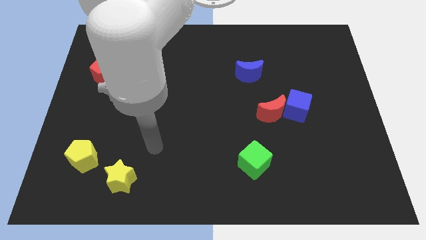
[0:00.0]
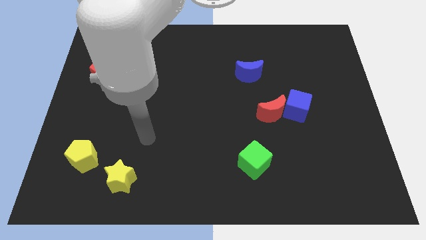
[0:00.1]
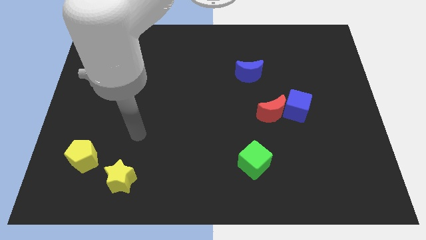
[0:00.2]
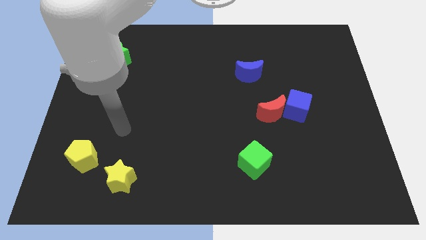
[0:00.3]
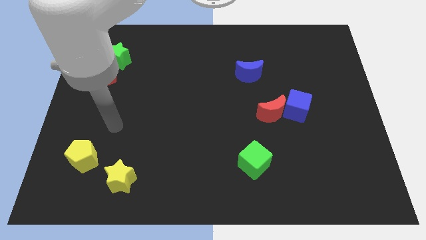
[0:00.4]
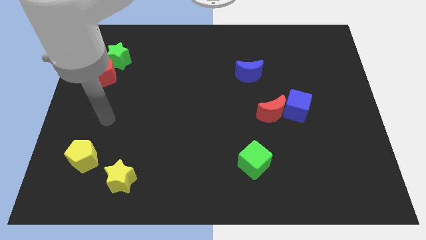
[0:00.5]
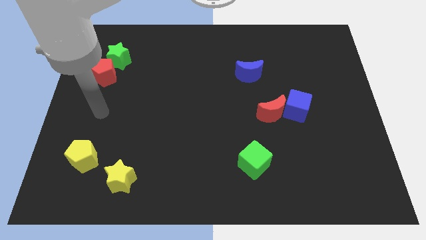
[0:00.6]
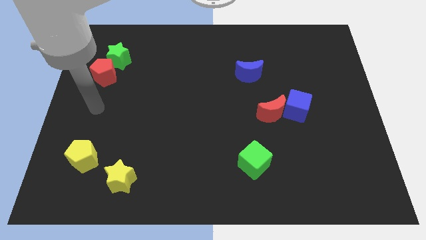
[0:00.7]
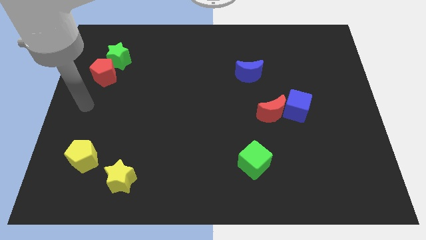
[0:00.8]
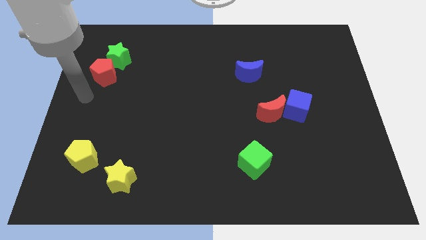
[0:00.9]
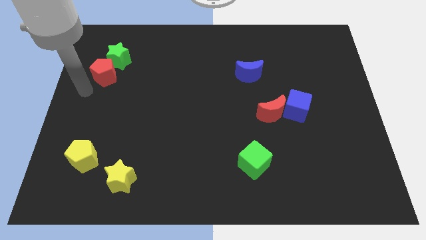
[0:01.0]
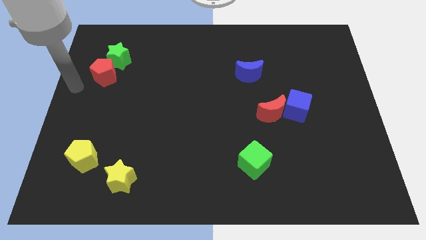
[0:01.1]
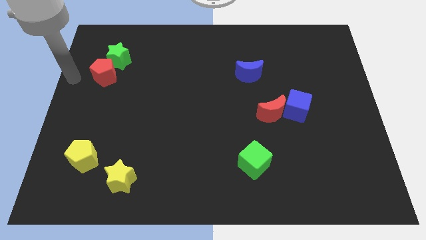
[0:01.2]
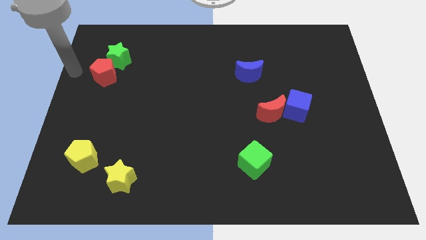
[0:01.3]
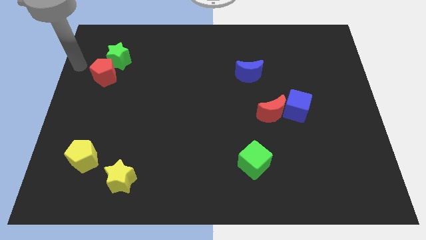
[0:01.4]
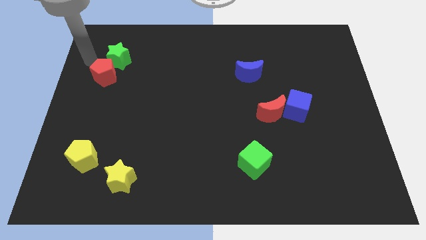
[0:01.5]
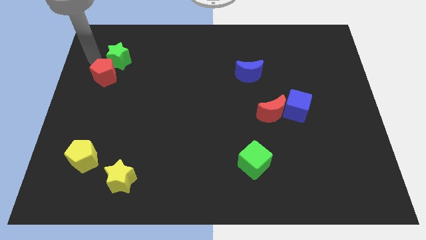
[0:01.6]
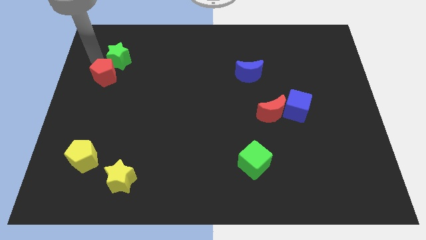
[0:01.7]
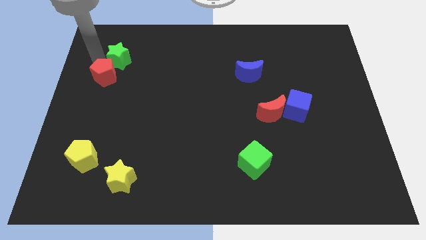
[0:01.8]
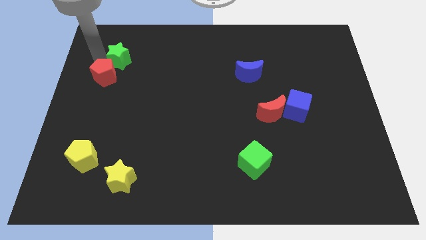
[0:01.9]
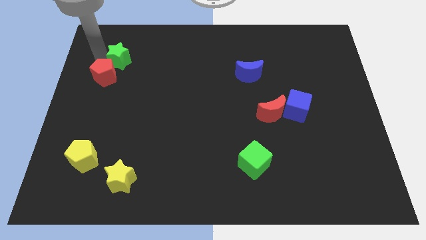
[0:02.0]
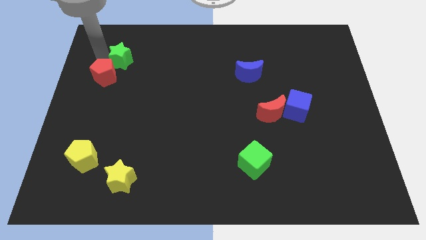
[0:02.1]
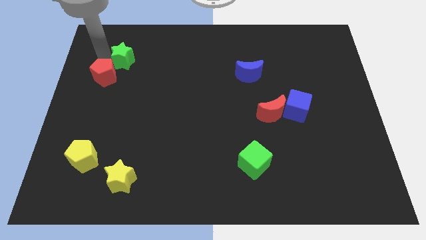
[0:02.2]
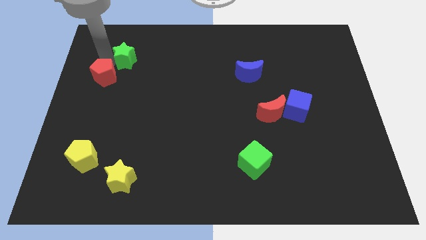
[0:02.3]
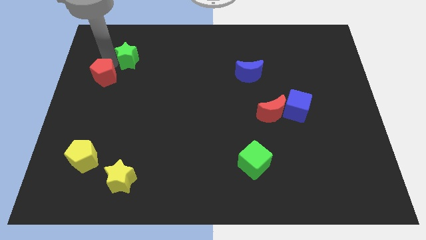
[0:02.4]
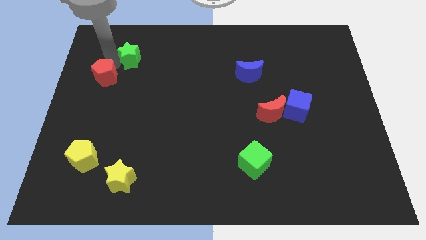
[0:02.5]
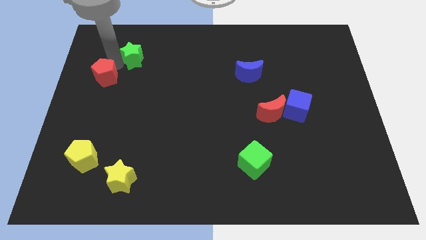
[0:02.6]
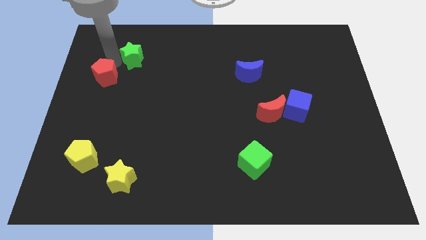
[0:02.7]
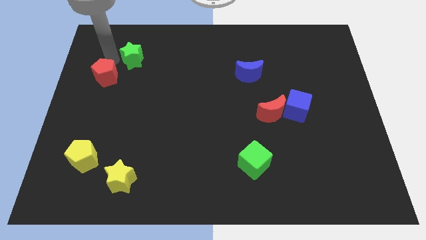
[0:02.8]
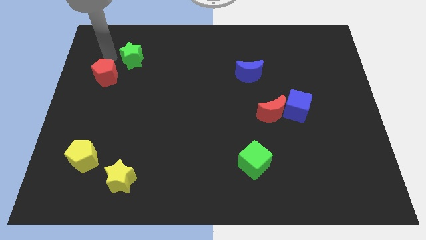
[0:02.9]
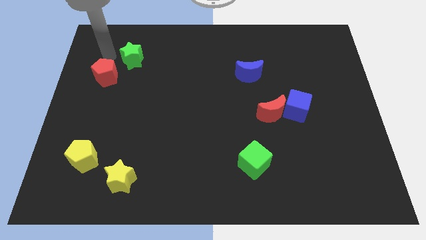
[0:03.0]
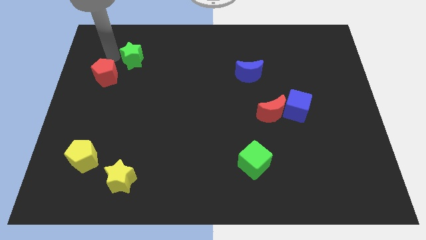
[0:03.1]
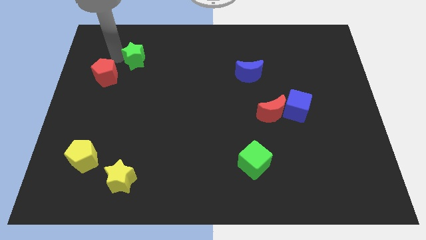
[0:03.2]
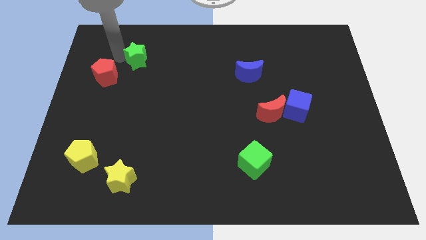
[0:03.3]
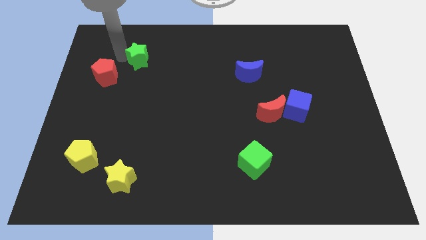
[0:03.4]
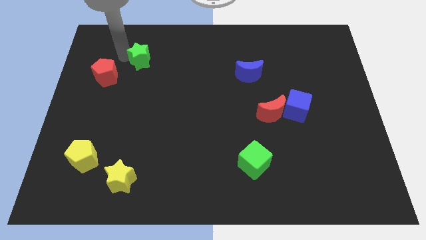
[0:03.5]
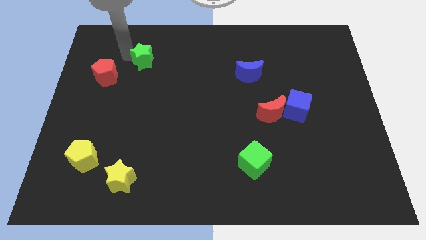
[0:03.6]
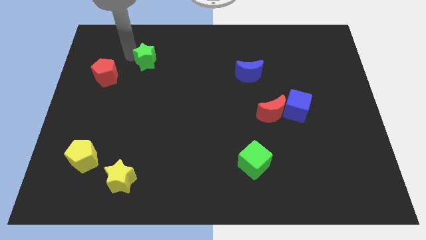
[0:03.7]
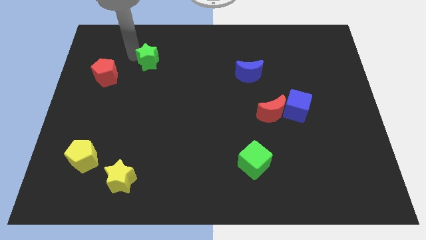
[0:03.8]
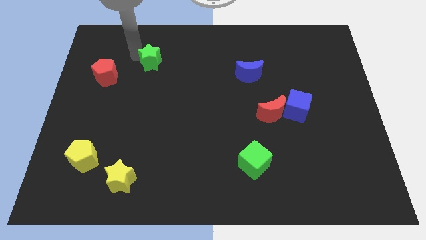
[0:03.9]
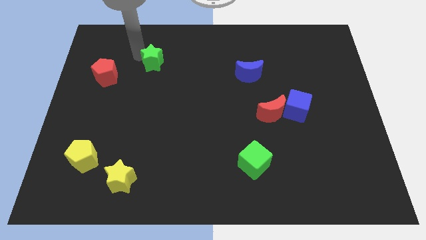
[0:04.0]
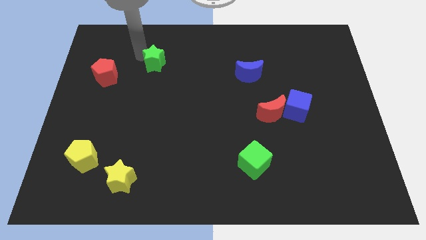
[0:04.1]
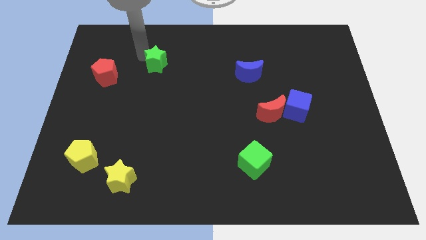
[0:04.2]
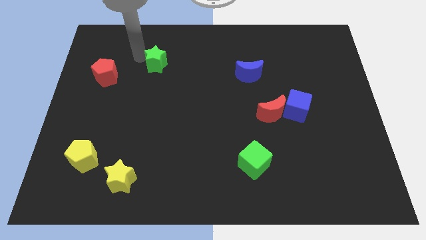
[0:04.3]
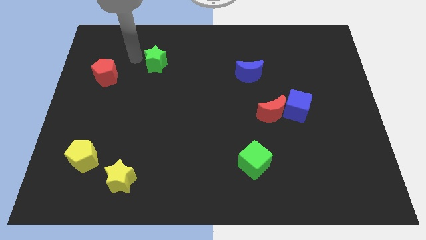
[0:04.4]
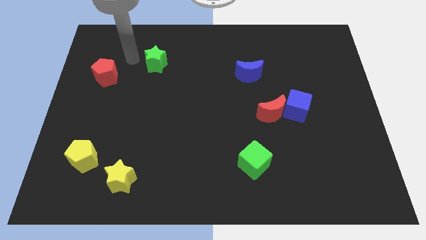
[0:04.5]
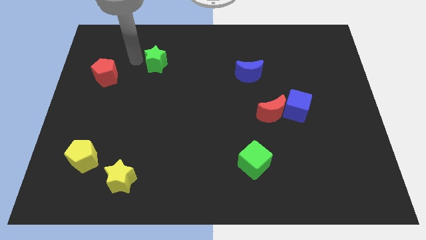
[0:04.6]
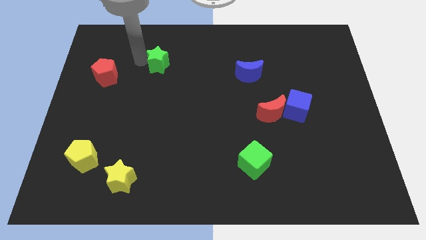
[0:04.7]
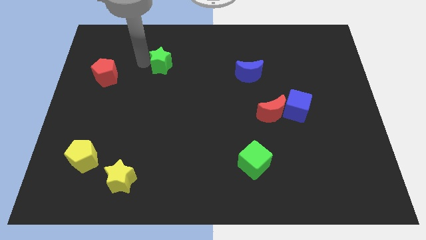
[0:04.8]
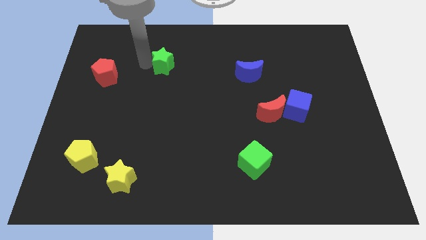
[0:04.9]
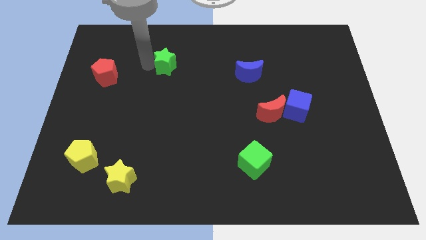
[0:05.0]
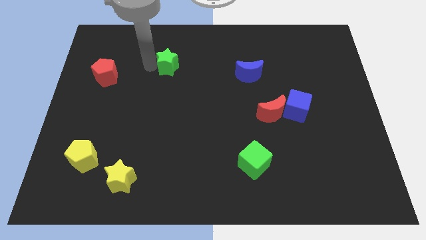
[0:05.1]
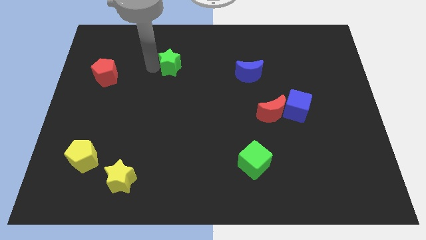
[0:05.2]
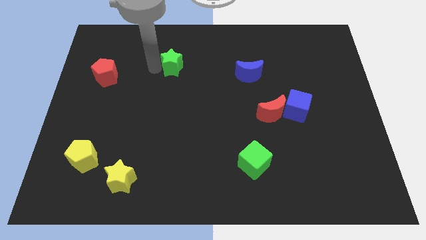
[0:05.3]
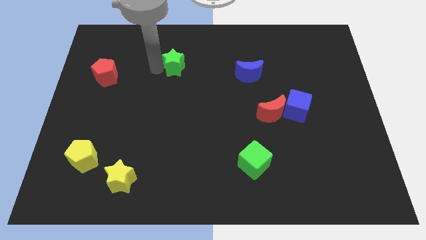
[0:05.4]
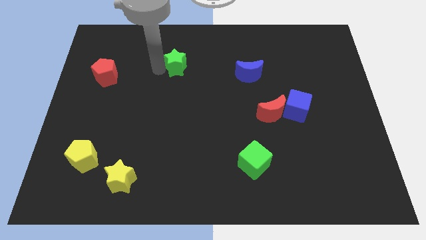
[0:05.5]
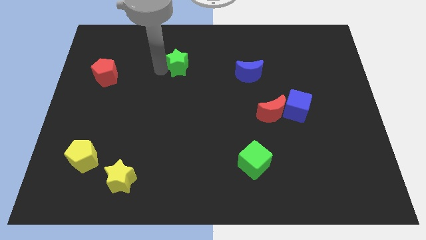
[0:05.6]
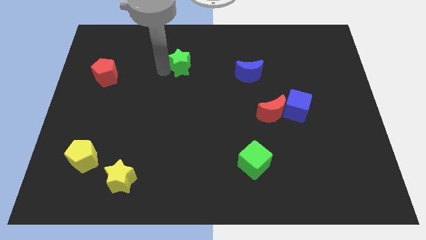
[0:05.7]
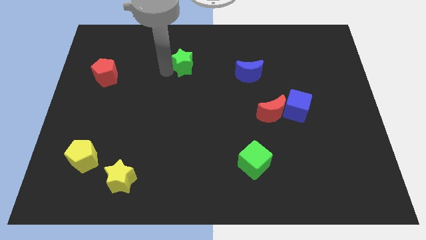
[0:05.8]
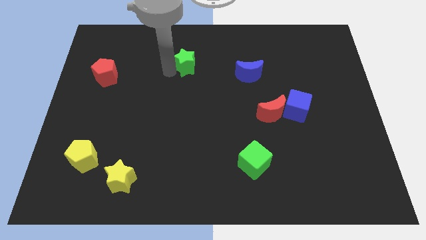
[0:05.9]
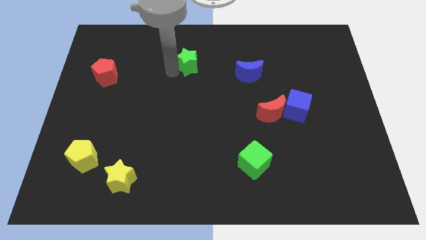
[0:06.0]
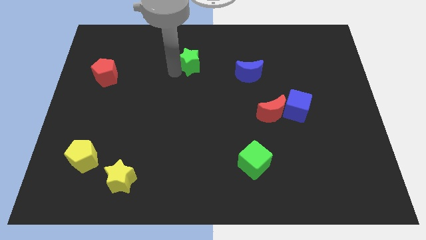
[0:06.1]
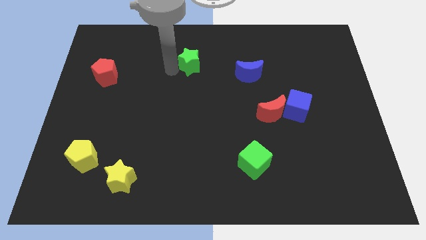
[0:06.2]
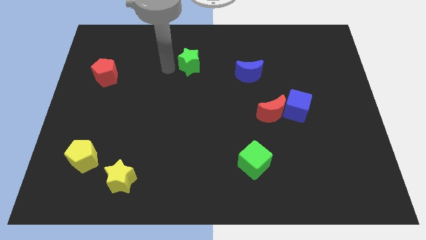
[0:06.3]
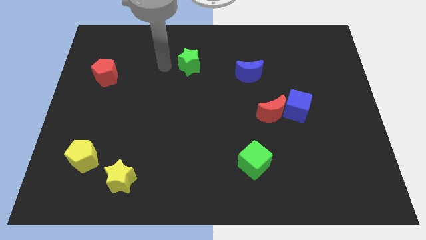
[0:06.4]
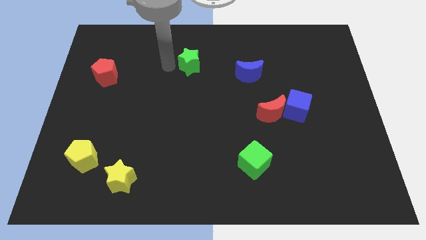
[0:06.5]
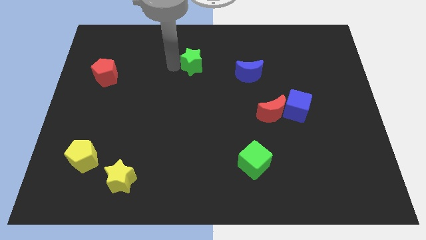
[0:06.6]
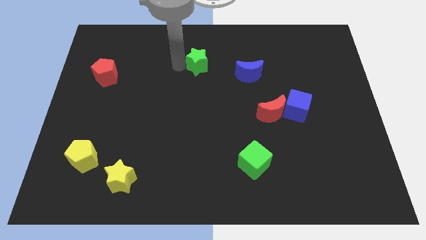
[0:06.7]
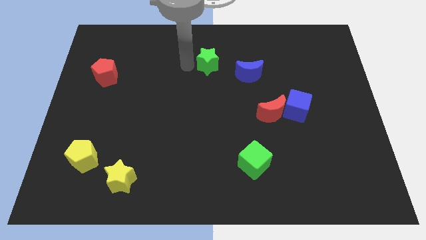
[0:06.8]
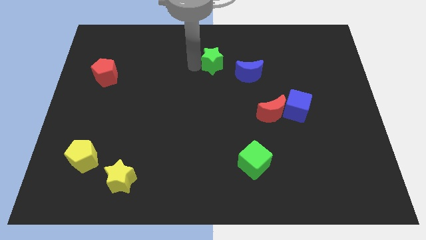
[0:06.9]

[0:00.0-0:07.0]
put the green star to the top left side of the blue moon
